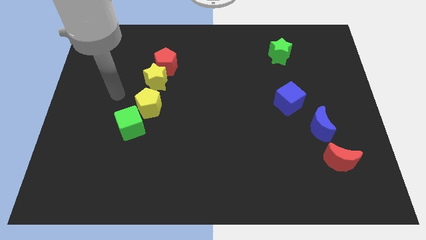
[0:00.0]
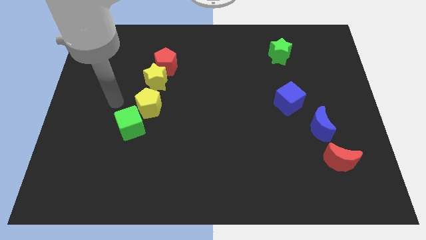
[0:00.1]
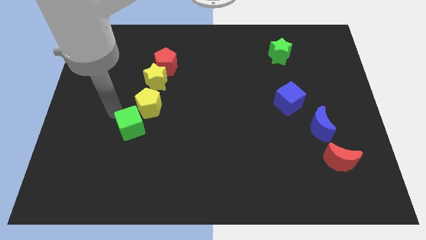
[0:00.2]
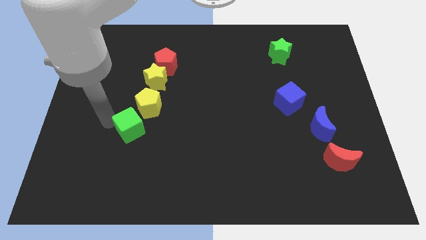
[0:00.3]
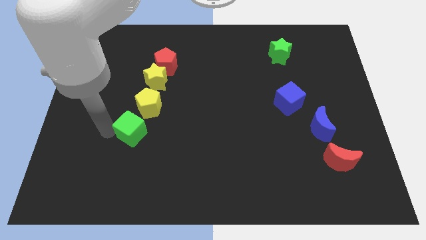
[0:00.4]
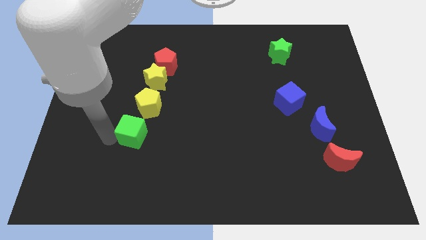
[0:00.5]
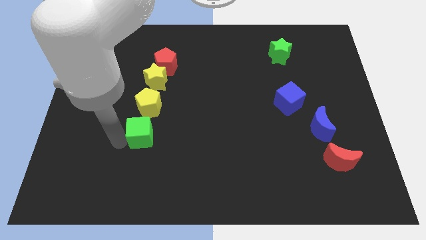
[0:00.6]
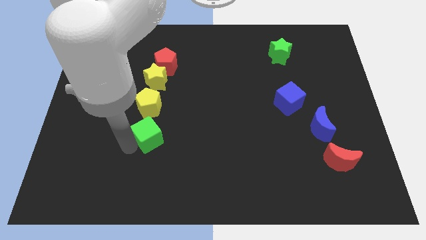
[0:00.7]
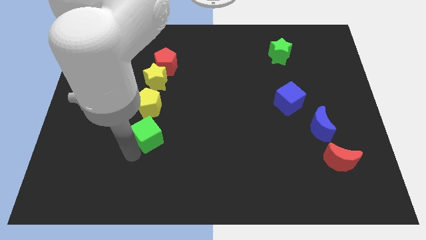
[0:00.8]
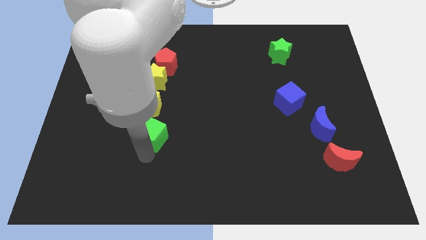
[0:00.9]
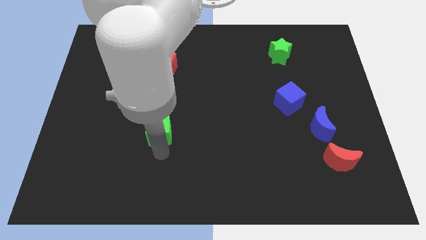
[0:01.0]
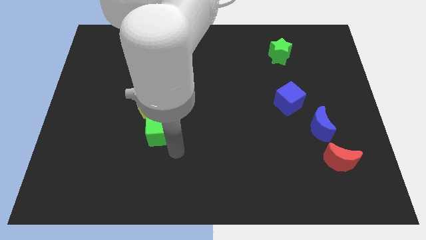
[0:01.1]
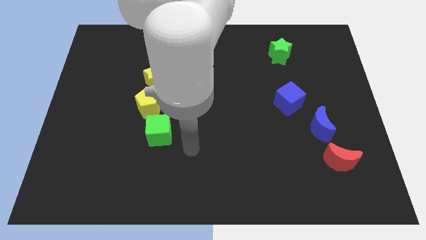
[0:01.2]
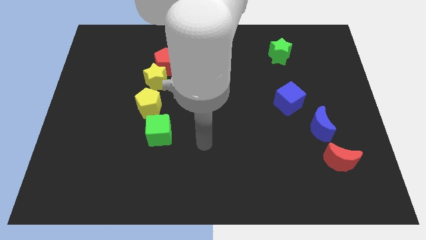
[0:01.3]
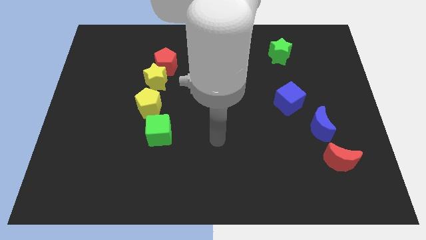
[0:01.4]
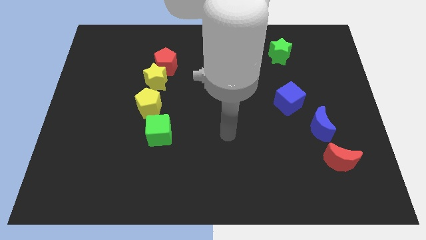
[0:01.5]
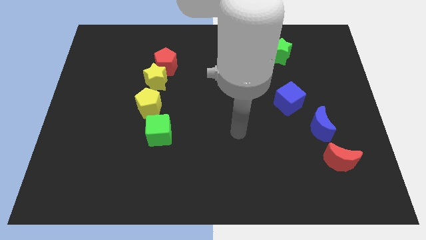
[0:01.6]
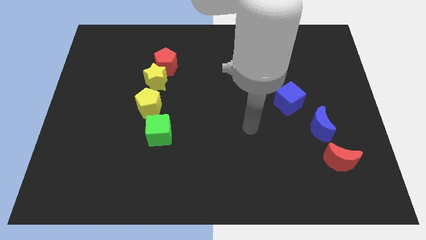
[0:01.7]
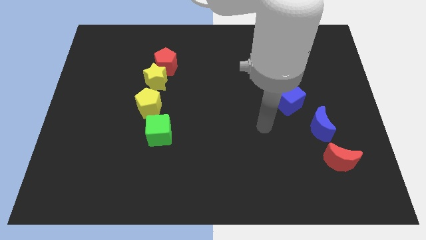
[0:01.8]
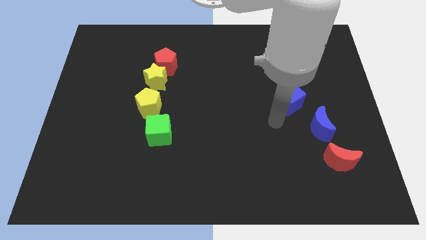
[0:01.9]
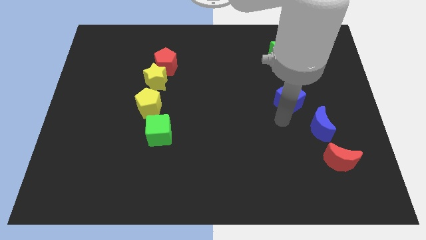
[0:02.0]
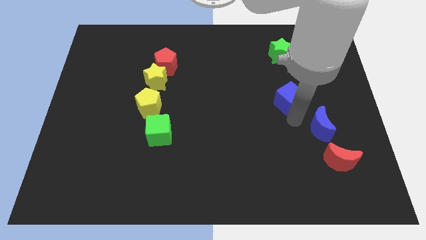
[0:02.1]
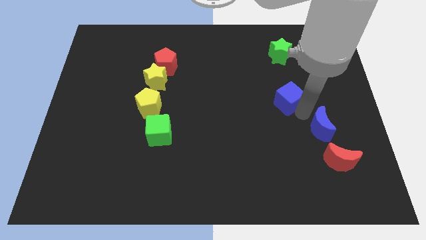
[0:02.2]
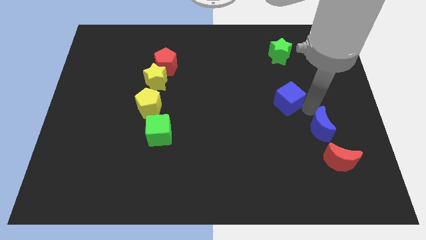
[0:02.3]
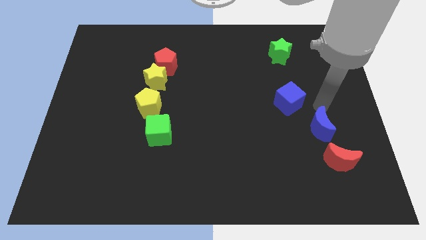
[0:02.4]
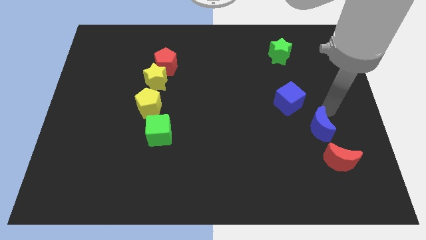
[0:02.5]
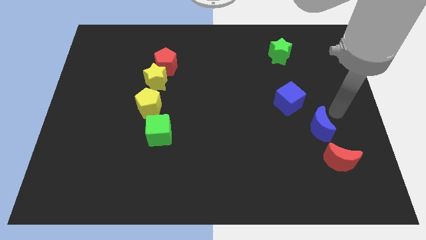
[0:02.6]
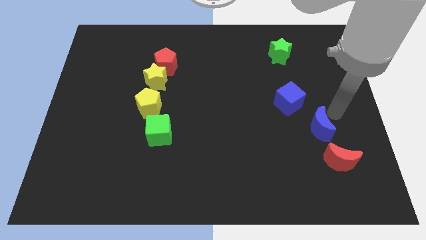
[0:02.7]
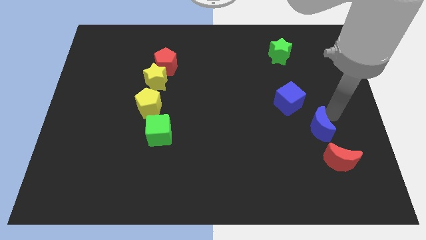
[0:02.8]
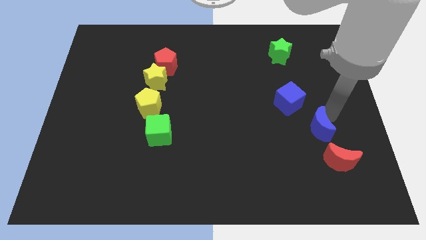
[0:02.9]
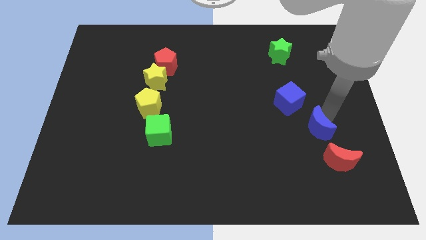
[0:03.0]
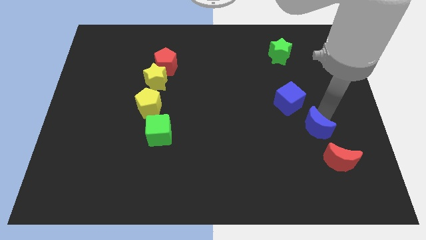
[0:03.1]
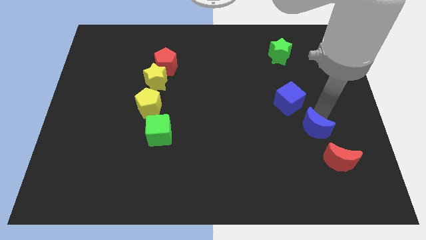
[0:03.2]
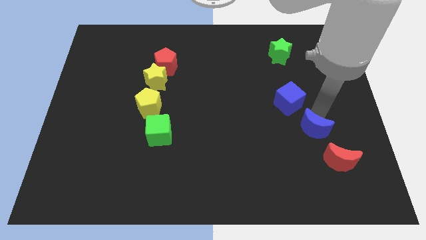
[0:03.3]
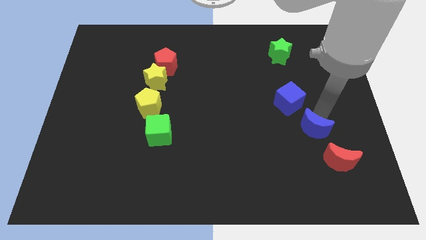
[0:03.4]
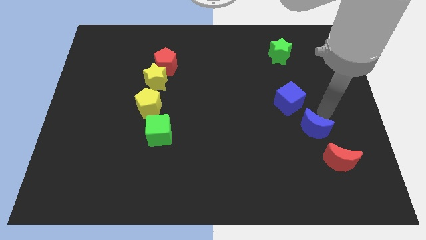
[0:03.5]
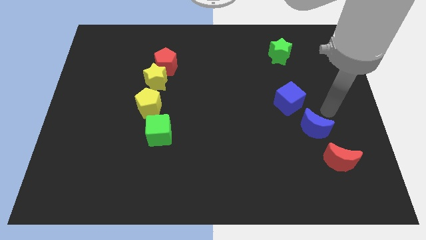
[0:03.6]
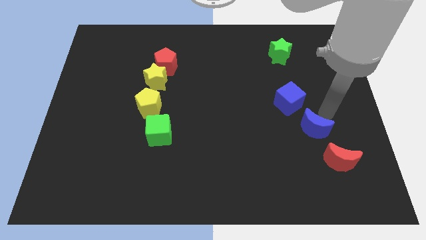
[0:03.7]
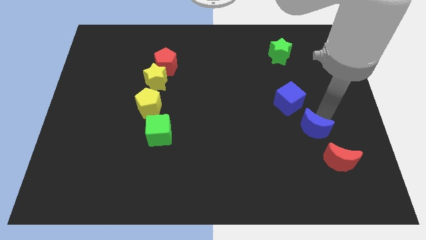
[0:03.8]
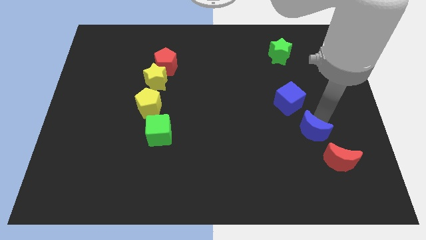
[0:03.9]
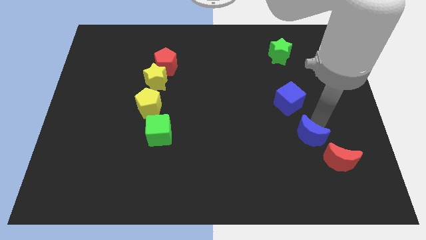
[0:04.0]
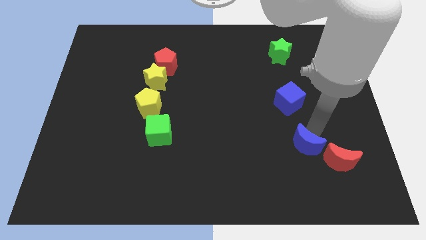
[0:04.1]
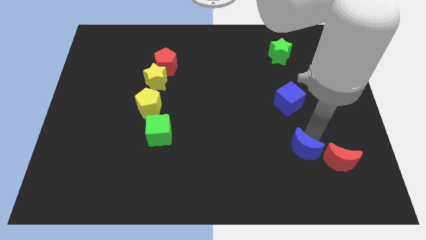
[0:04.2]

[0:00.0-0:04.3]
slightly move the blue moon downwards and left diagonally

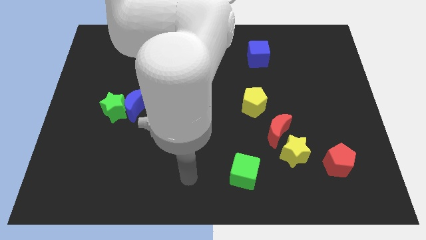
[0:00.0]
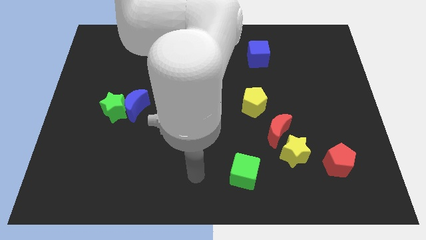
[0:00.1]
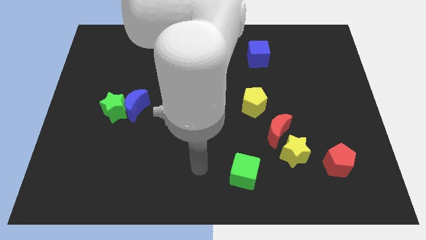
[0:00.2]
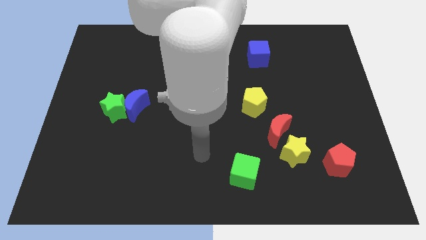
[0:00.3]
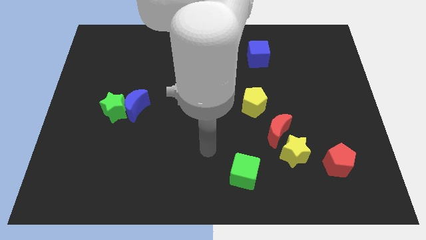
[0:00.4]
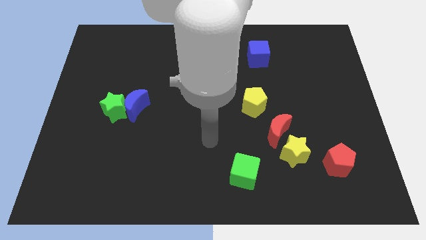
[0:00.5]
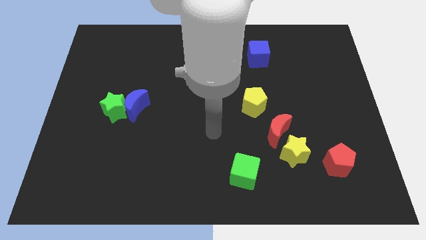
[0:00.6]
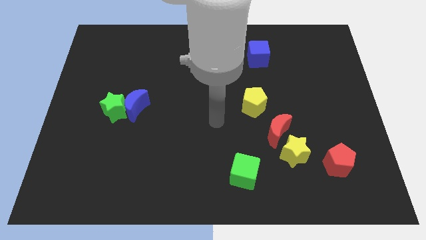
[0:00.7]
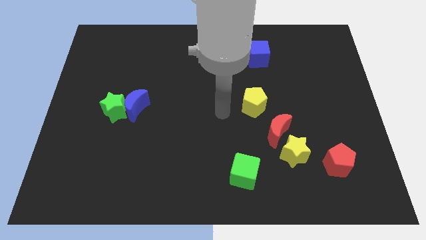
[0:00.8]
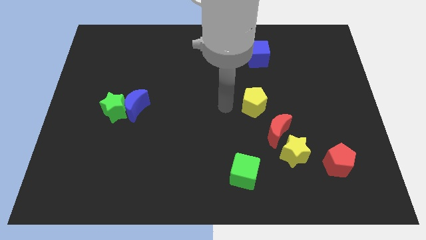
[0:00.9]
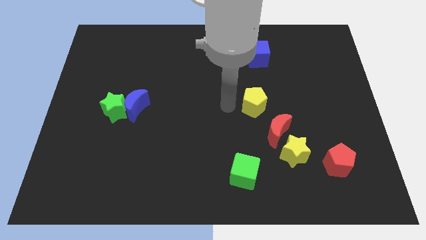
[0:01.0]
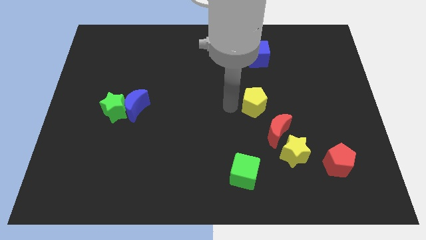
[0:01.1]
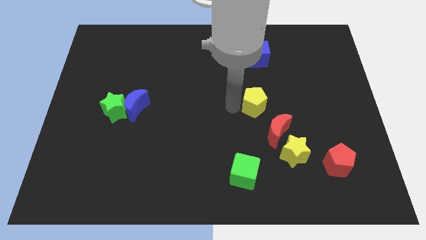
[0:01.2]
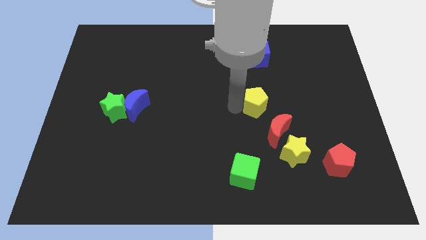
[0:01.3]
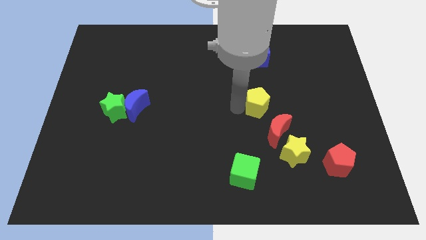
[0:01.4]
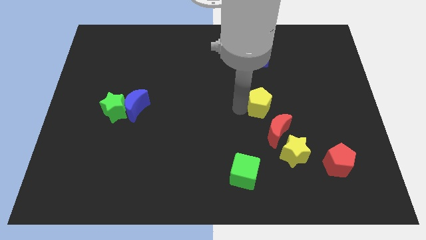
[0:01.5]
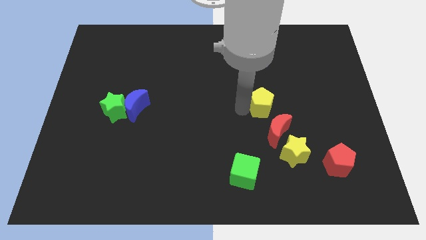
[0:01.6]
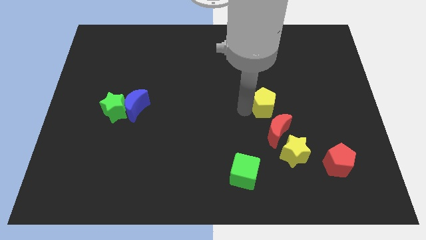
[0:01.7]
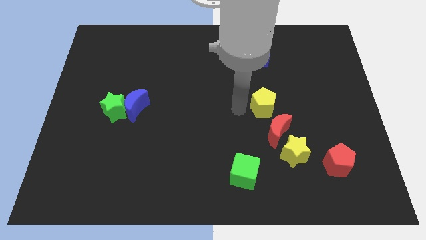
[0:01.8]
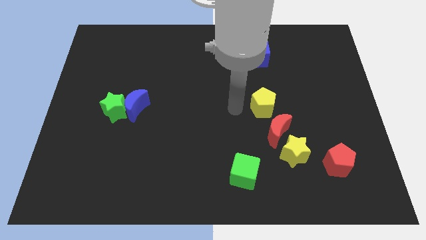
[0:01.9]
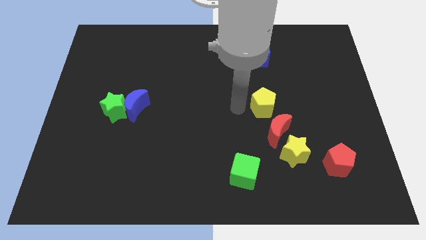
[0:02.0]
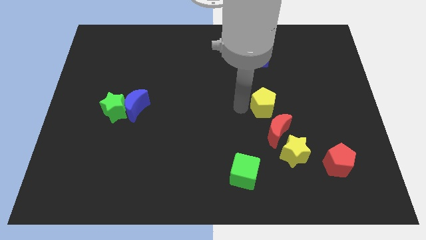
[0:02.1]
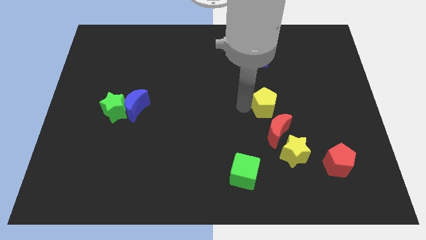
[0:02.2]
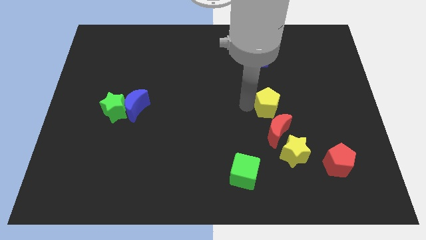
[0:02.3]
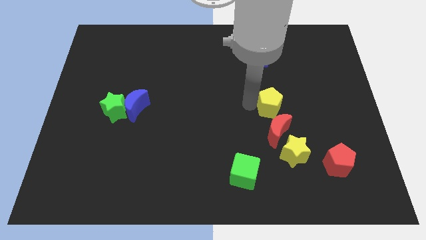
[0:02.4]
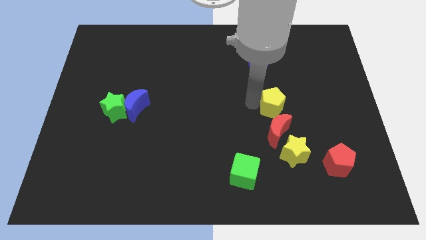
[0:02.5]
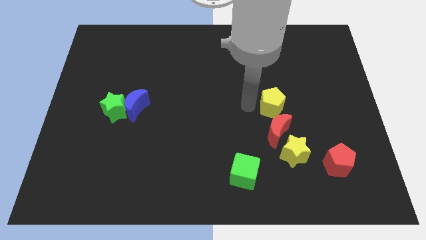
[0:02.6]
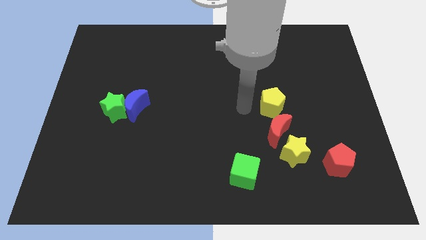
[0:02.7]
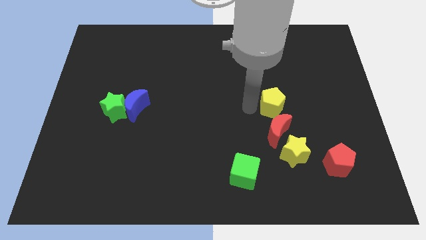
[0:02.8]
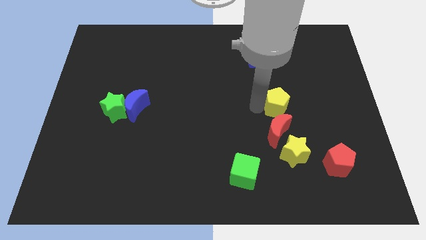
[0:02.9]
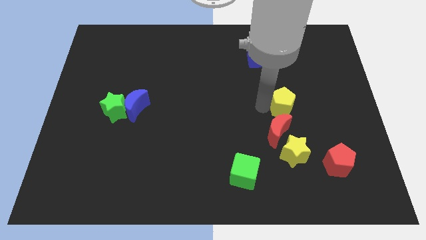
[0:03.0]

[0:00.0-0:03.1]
slightly slide the yellow pentagon right

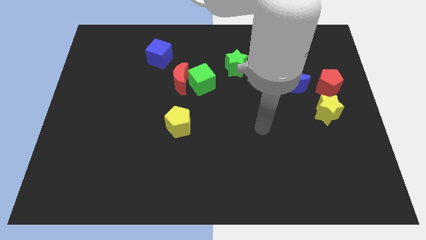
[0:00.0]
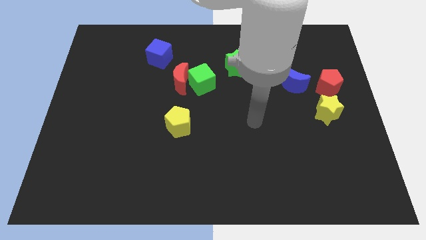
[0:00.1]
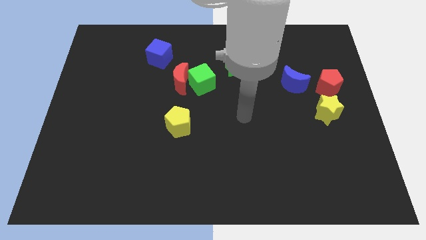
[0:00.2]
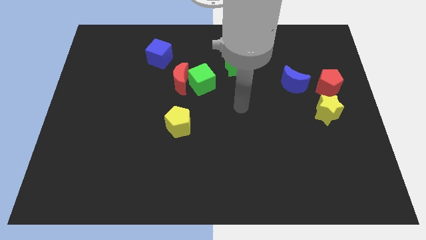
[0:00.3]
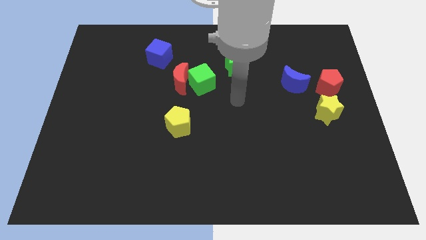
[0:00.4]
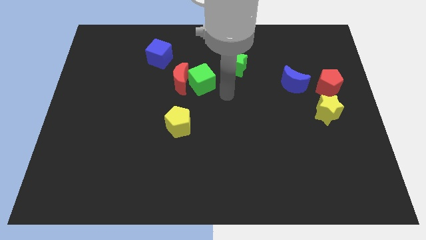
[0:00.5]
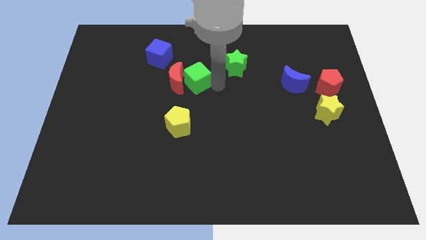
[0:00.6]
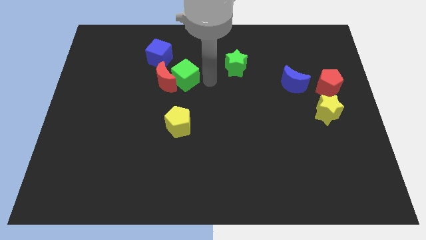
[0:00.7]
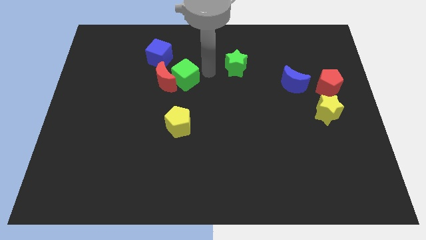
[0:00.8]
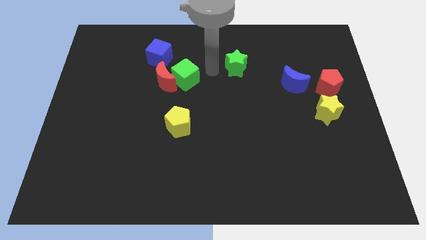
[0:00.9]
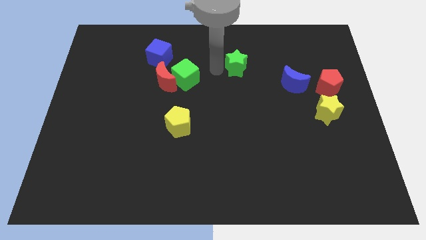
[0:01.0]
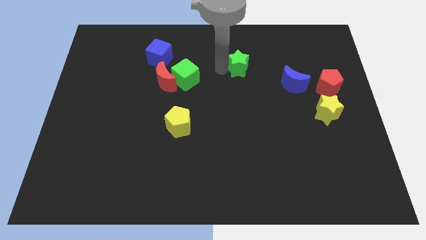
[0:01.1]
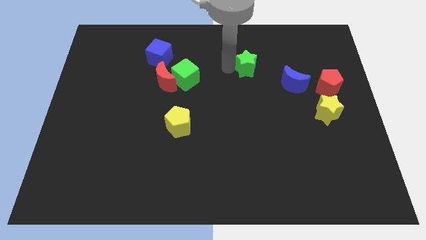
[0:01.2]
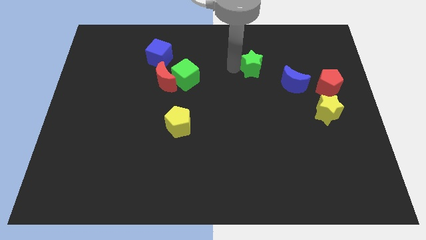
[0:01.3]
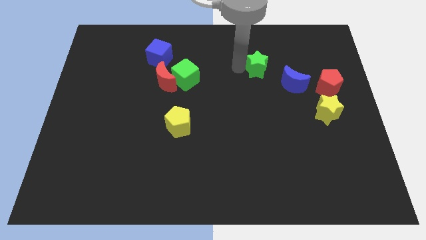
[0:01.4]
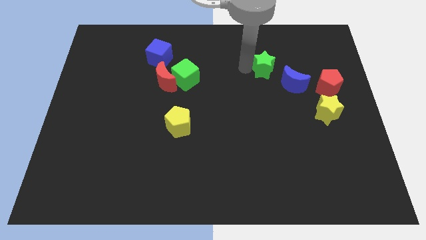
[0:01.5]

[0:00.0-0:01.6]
slightly move the green star right
